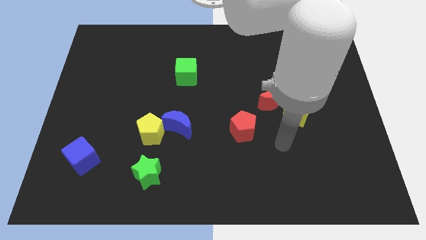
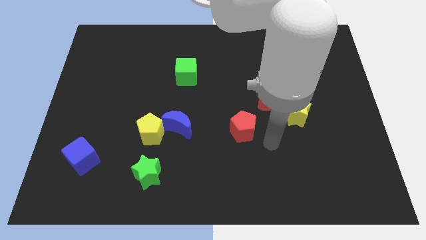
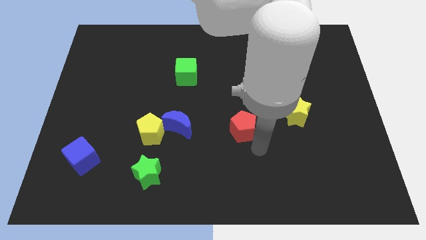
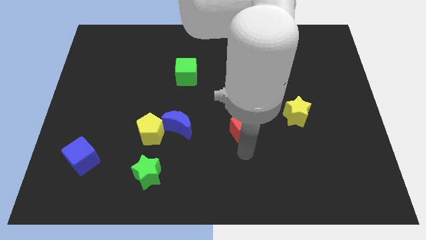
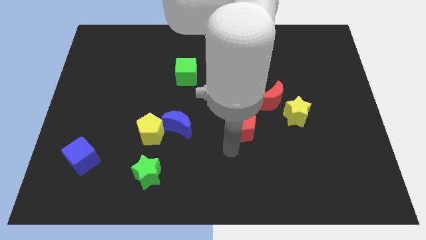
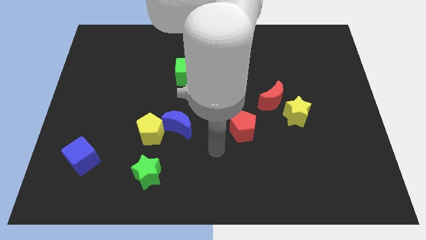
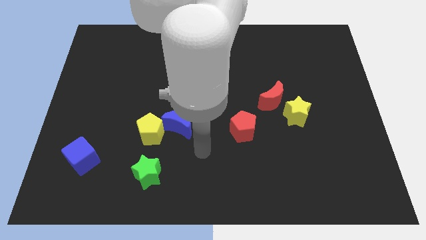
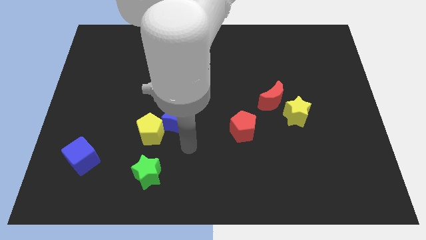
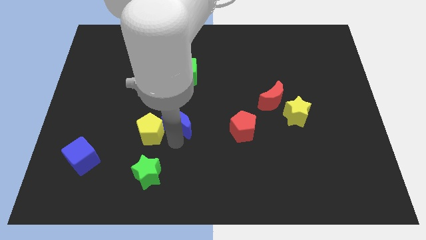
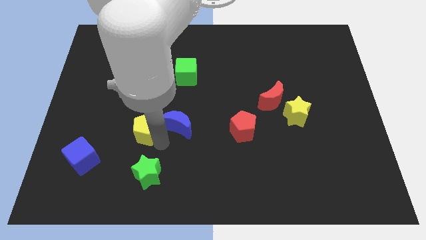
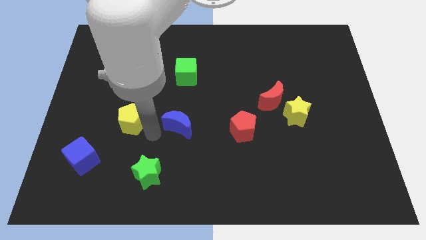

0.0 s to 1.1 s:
pull the blue moon apart from the yellow pentagon

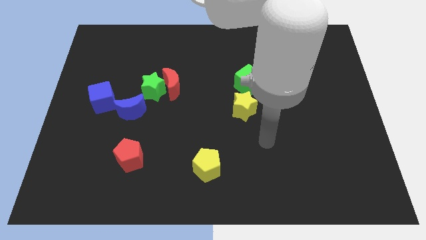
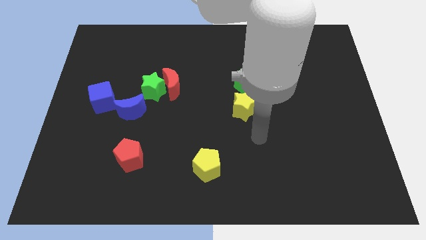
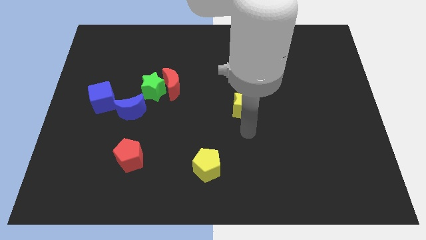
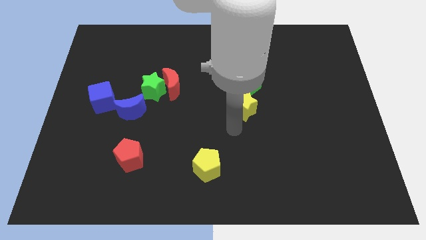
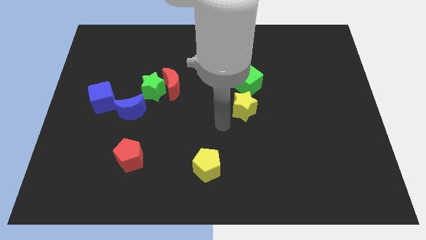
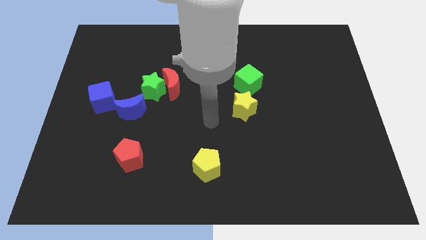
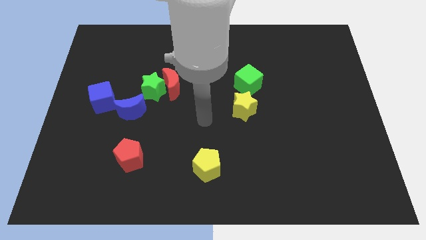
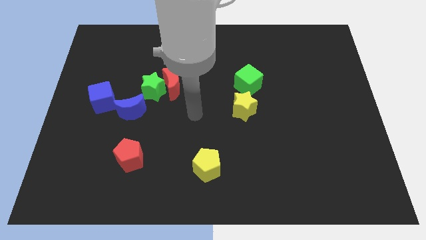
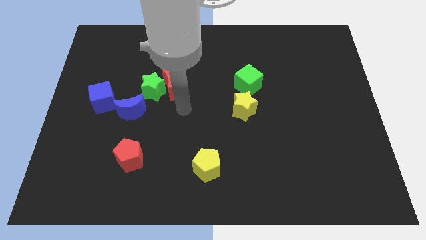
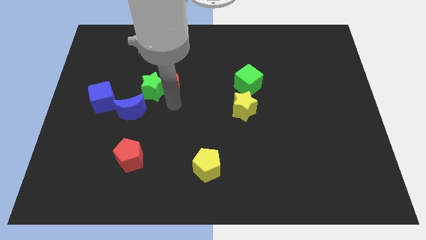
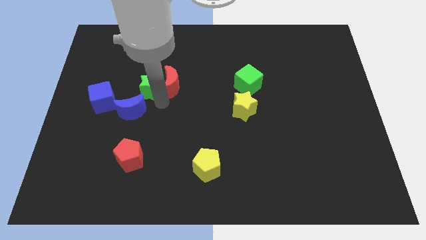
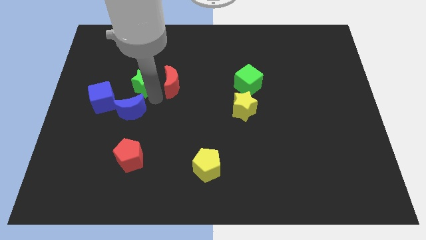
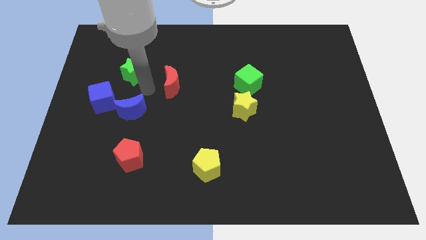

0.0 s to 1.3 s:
pull the red moon apart from the green star

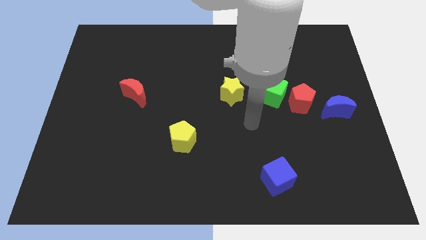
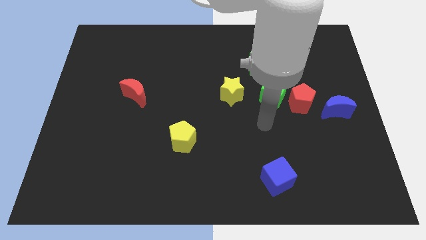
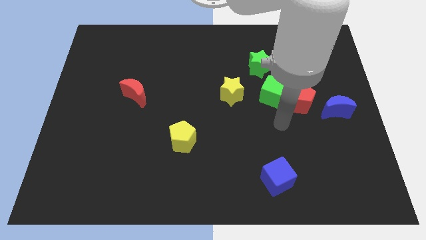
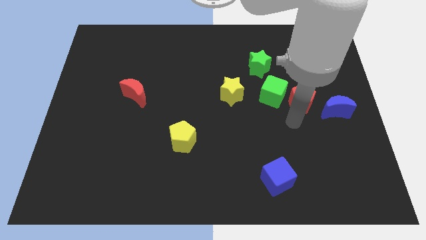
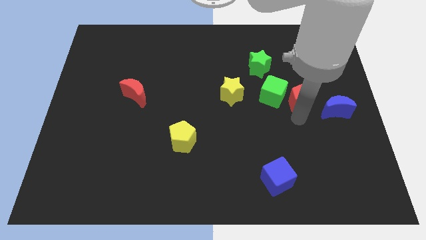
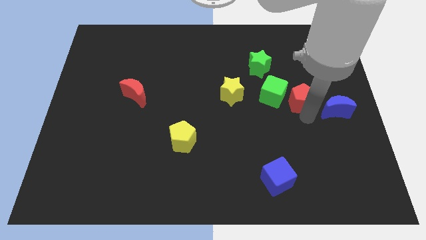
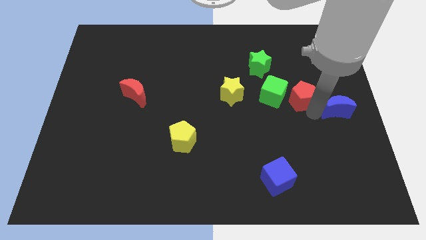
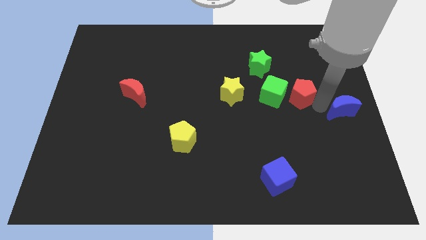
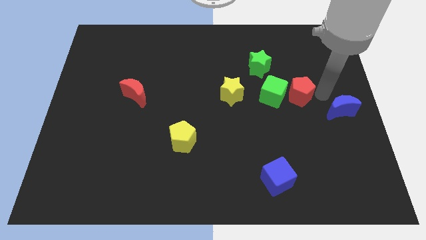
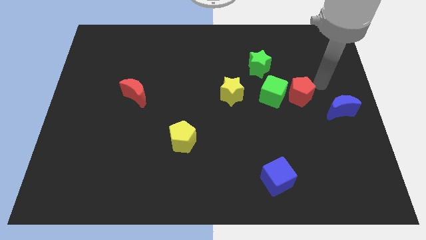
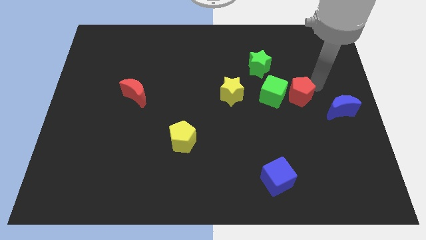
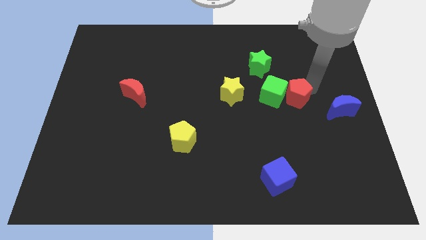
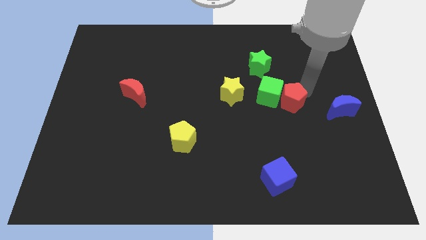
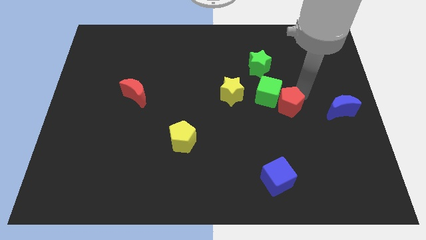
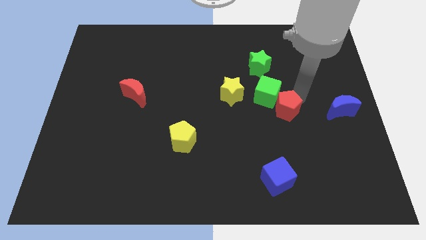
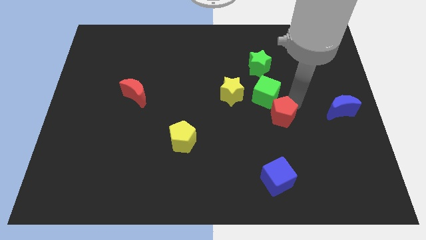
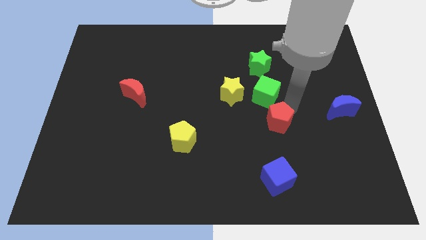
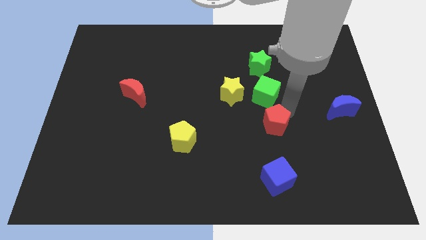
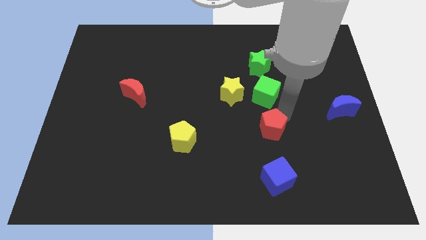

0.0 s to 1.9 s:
pull the red pentagon apart from the green cube and blue moon

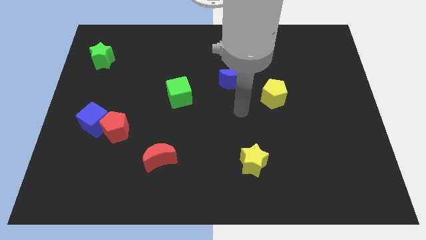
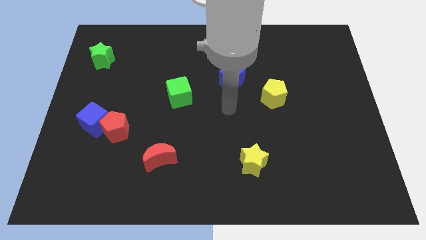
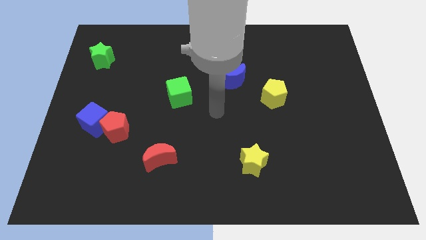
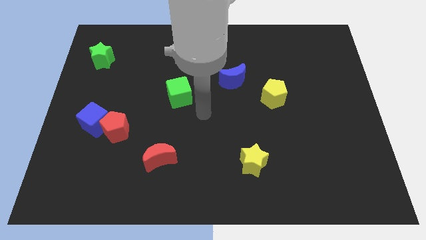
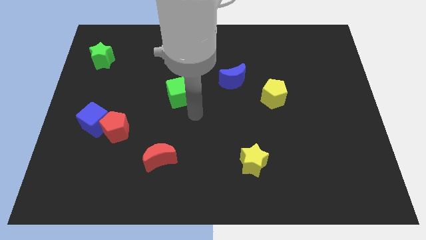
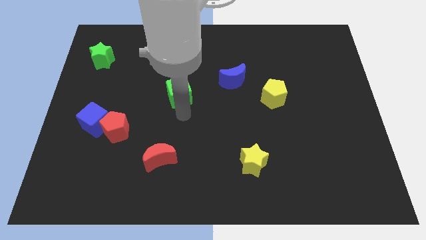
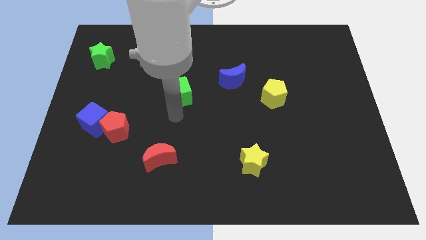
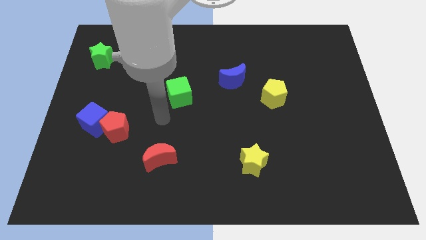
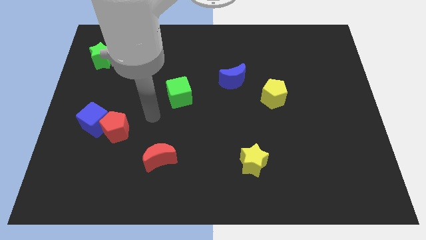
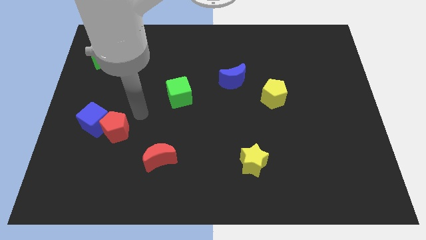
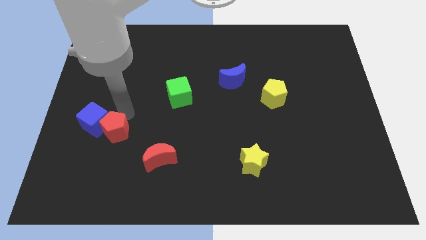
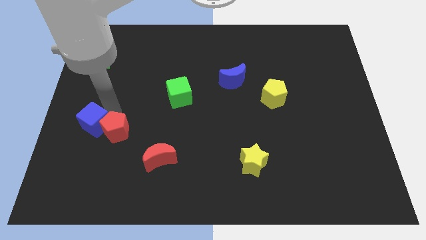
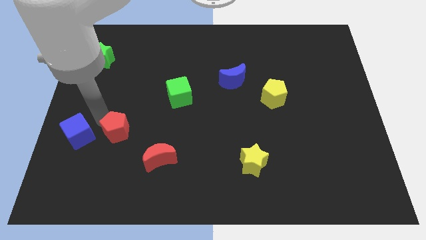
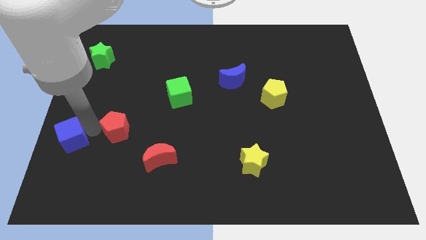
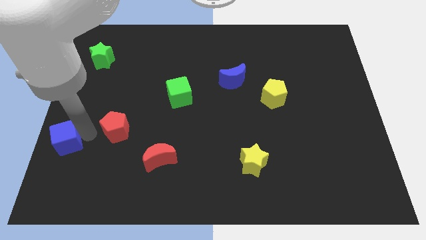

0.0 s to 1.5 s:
move the red pentagon away from the blue cube

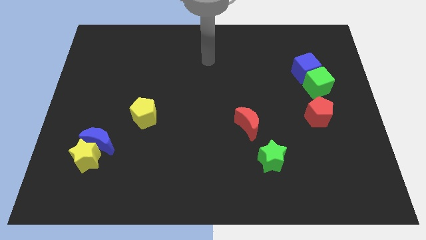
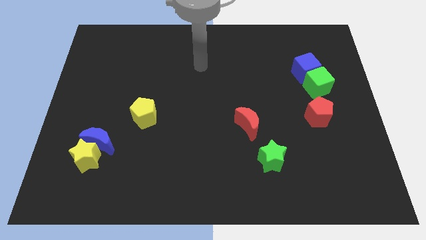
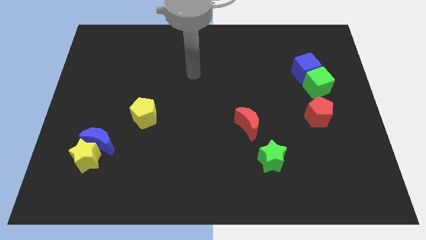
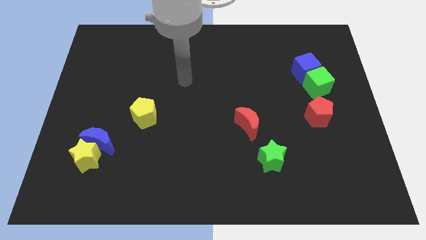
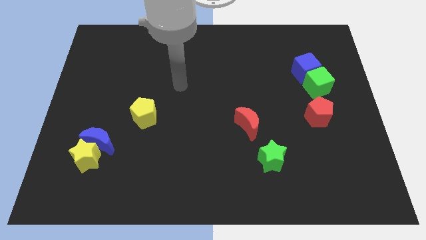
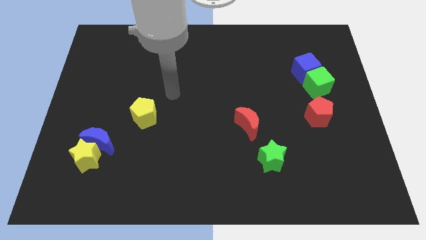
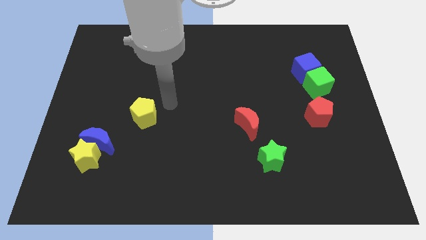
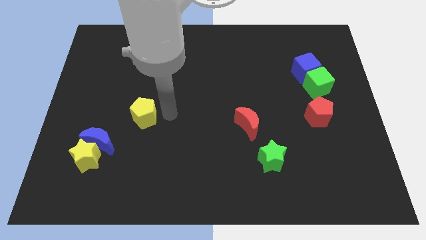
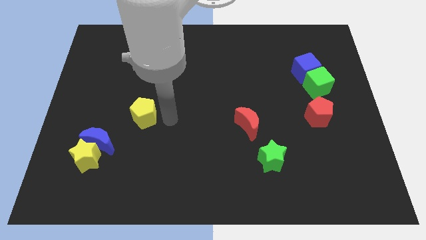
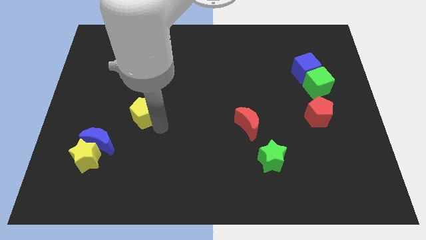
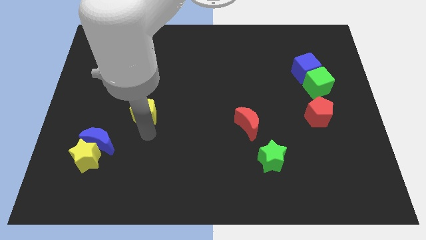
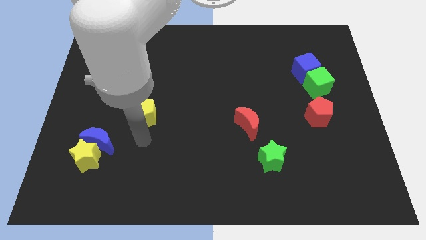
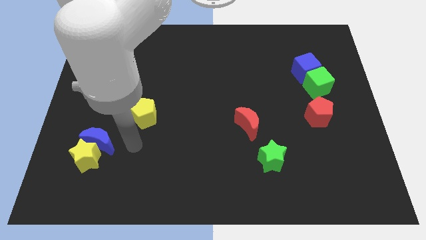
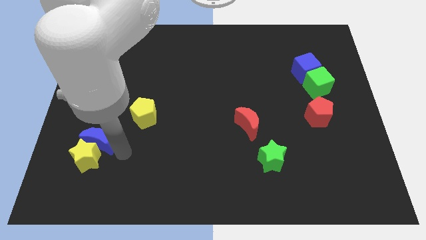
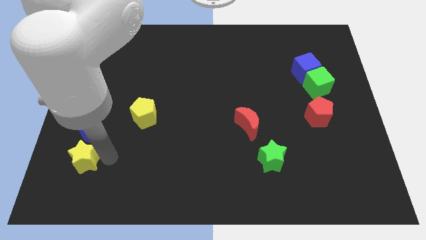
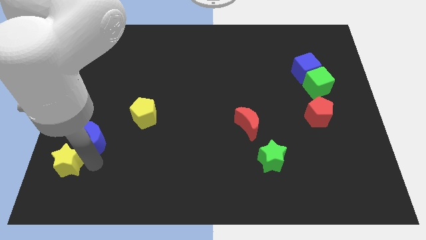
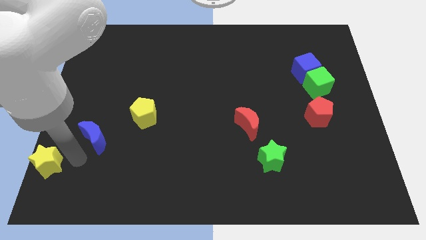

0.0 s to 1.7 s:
pull the blue moon apart from the yellow star

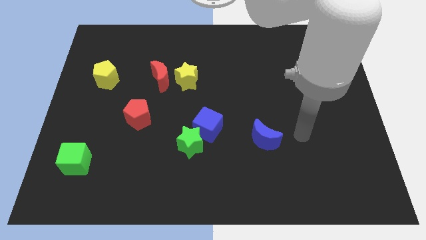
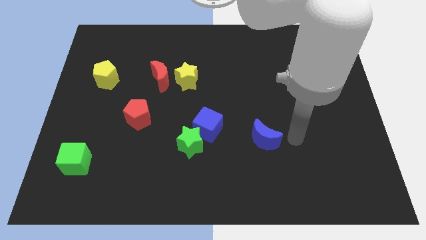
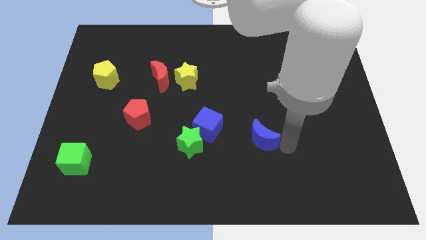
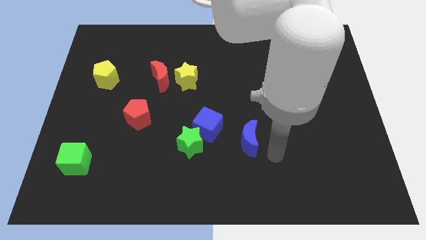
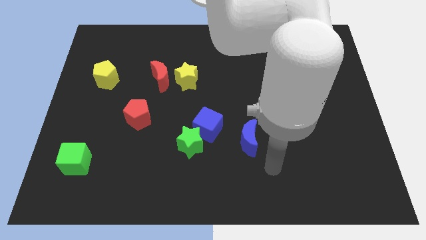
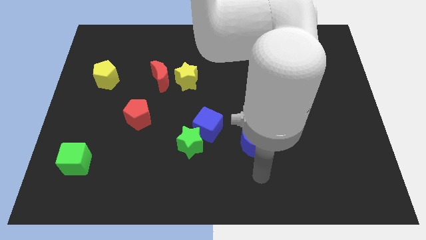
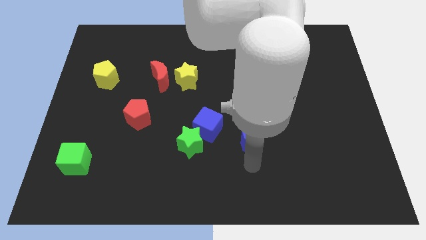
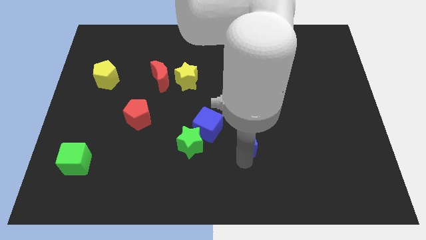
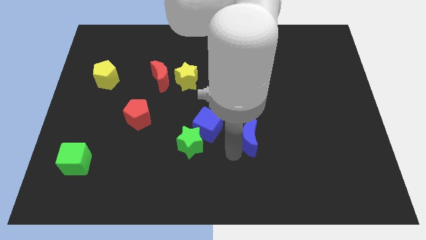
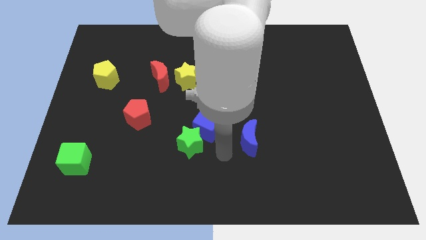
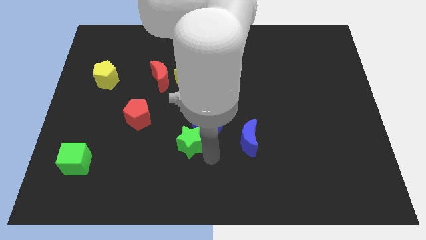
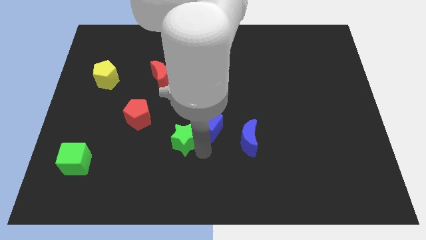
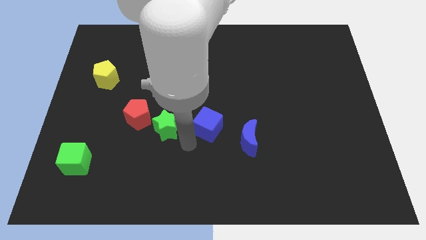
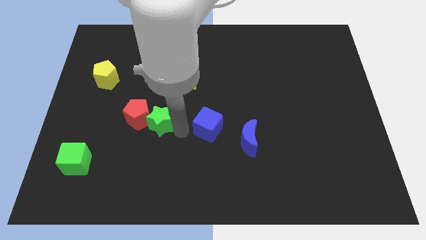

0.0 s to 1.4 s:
separate the blue cube from the green star

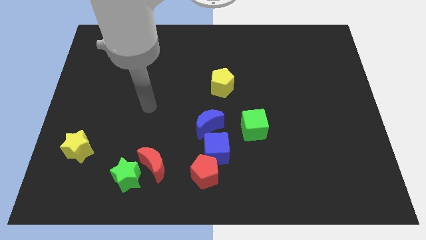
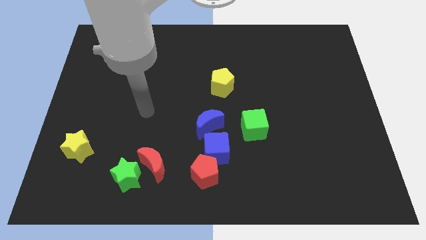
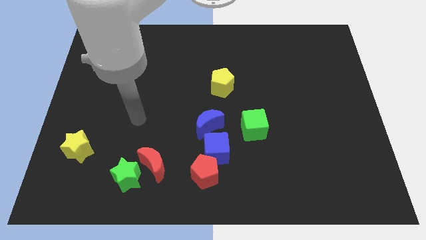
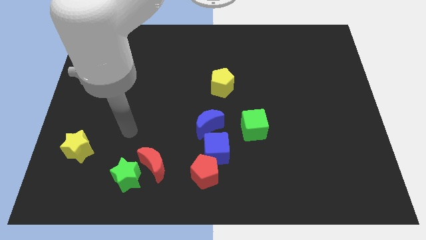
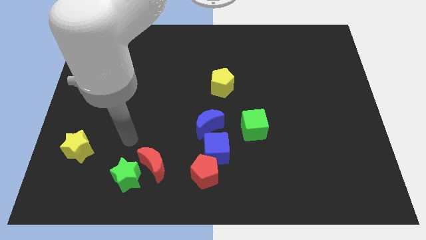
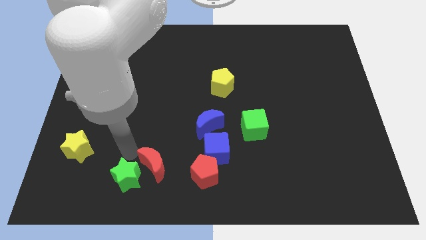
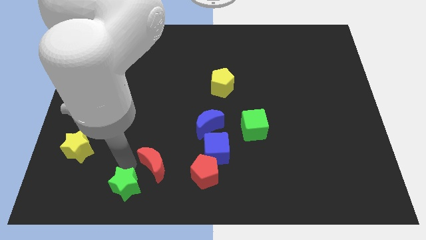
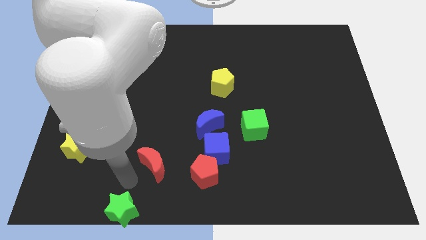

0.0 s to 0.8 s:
separate the red moon from the green star
